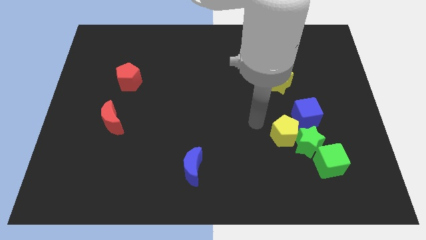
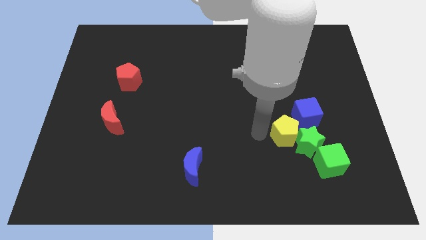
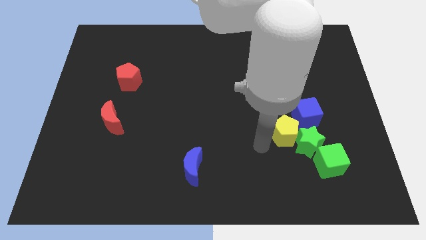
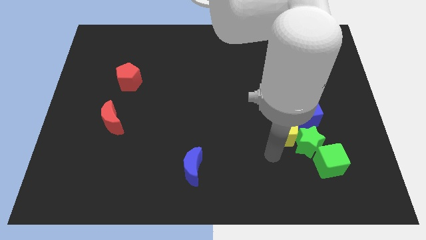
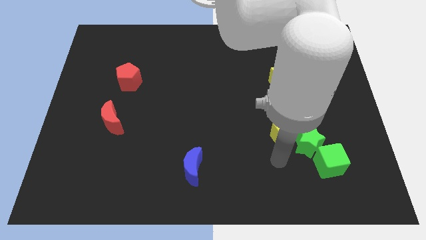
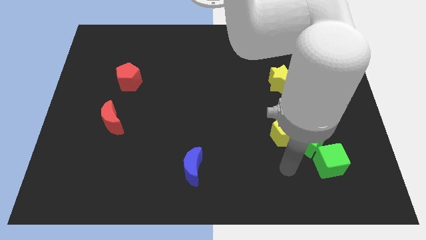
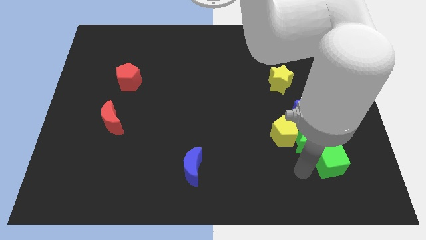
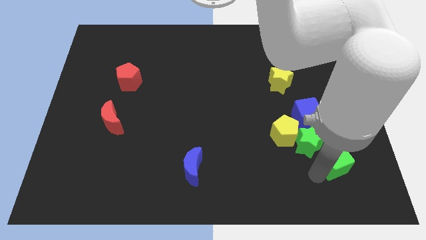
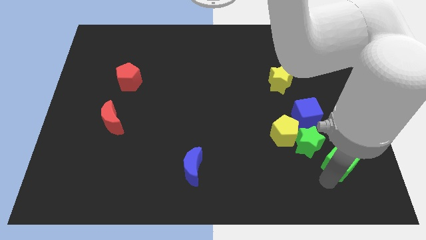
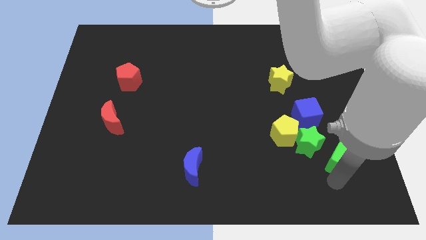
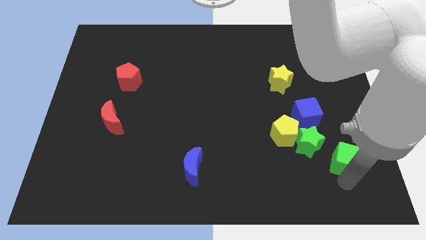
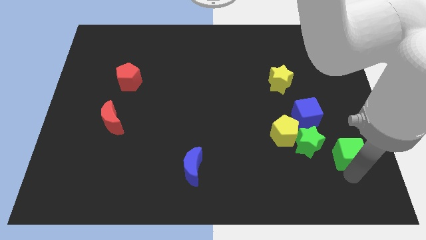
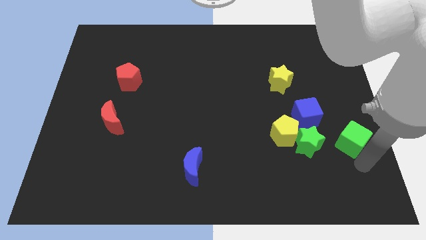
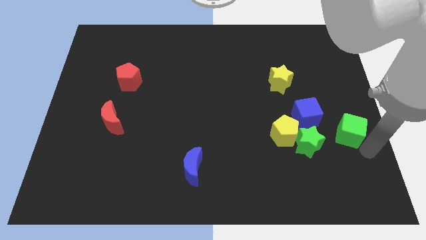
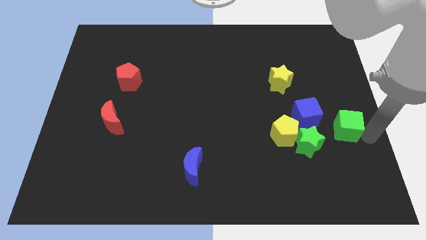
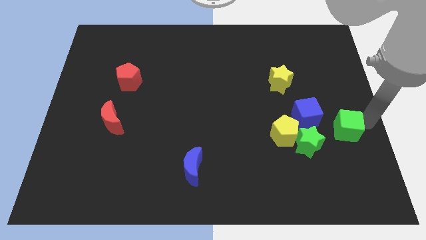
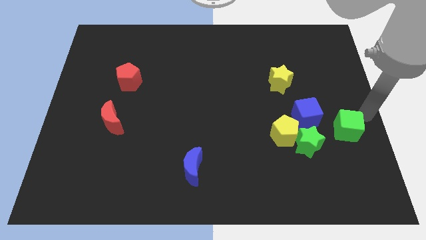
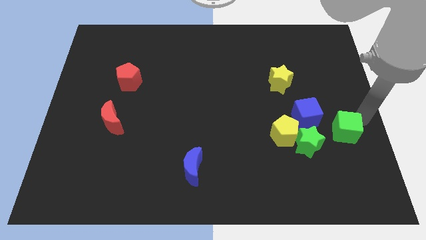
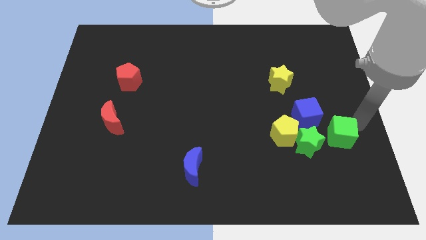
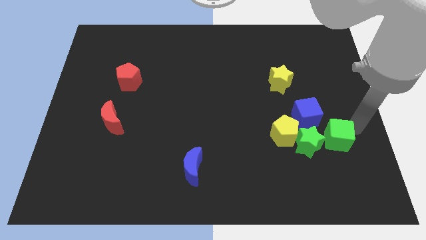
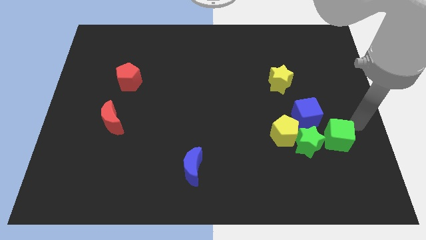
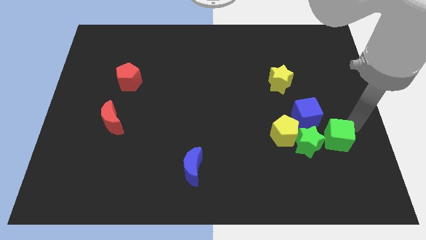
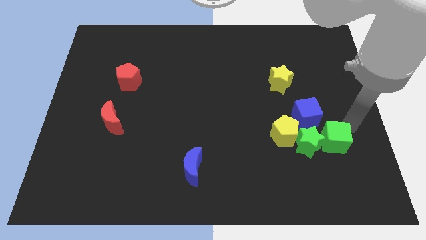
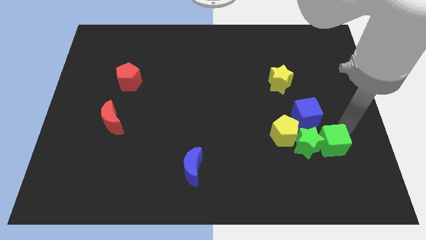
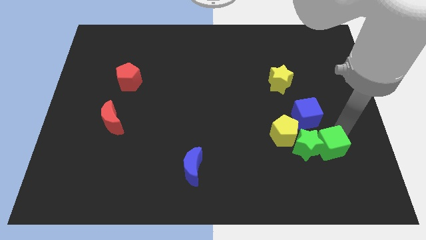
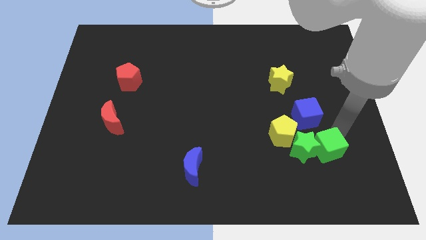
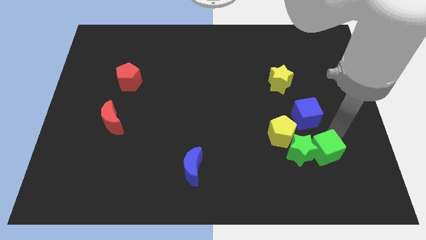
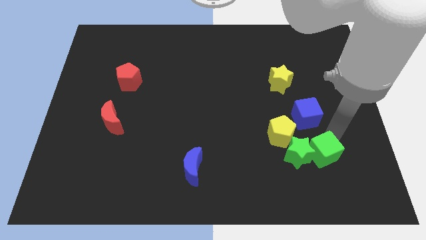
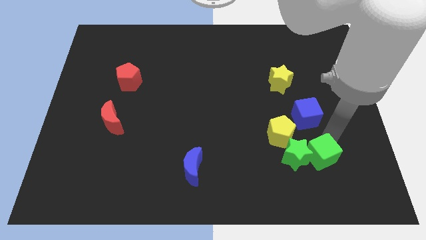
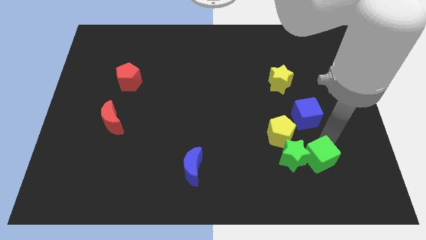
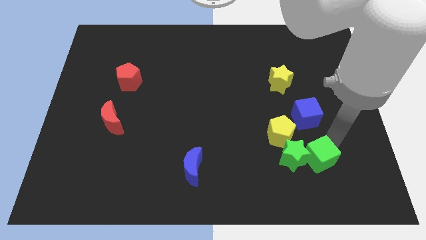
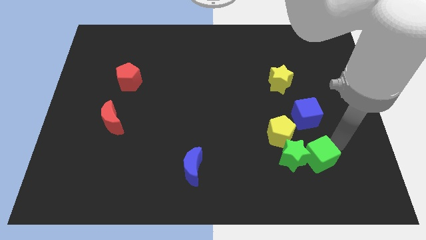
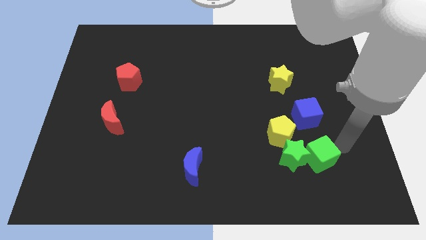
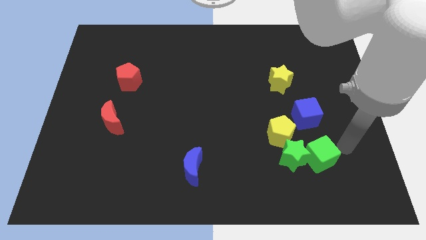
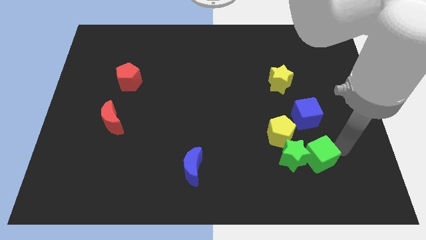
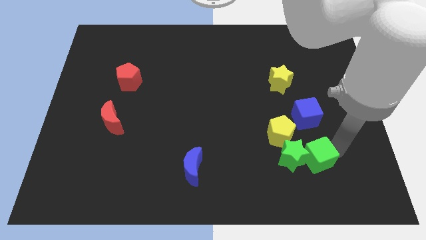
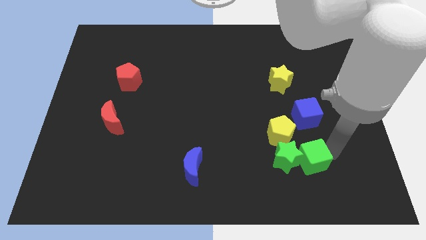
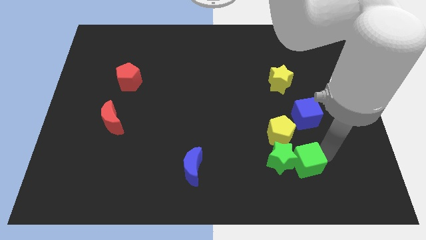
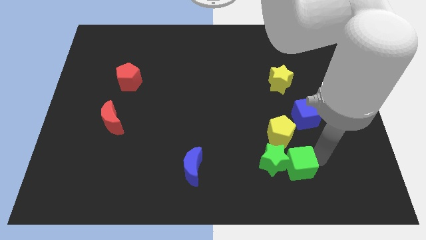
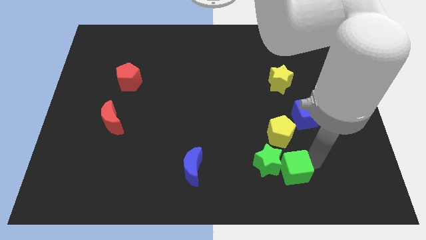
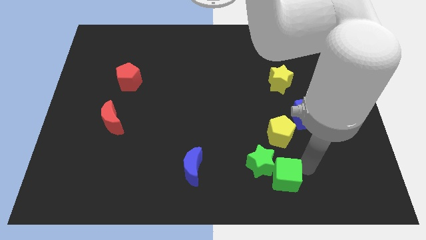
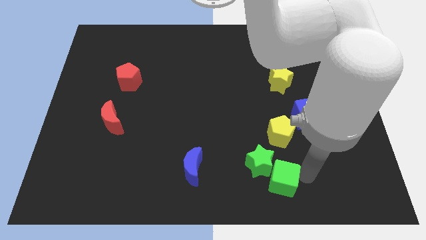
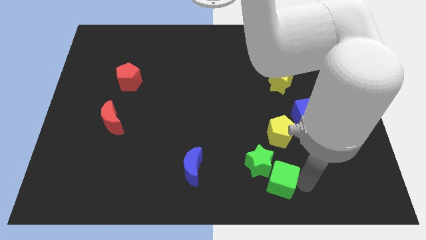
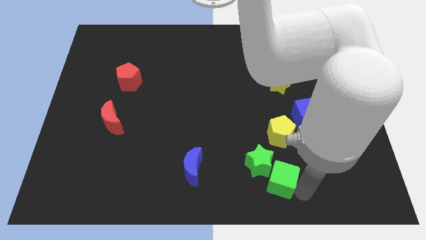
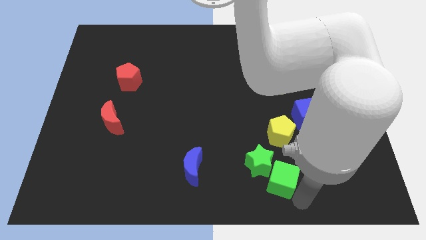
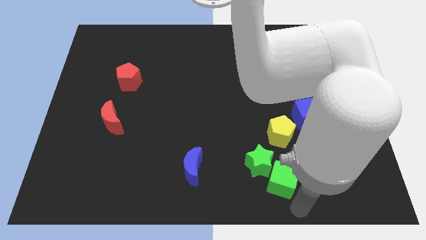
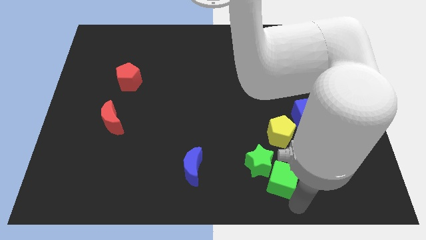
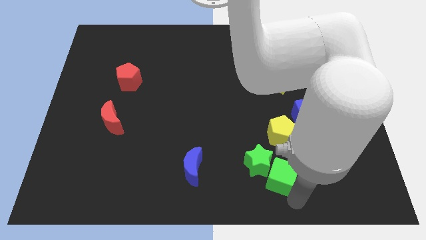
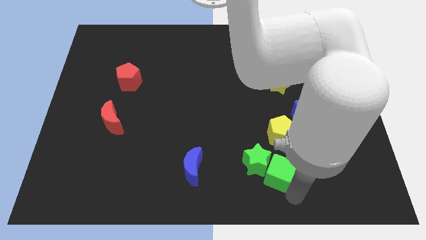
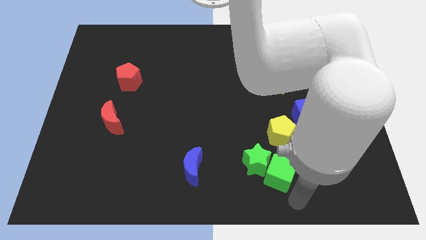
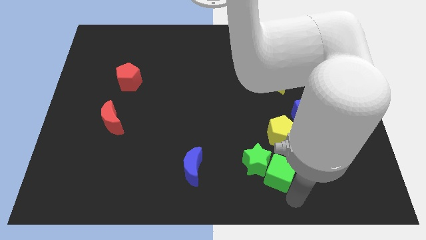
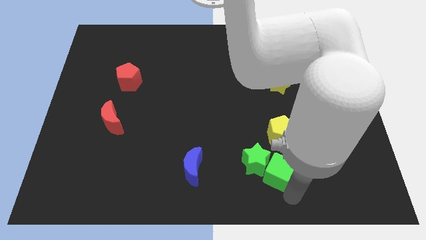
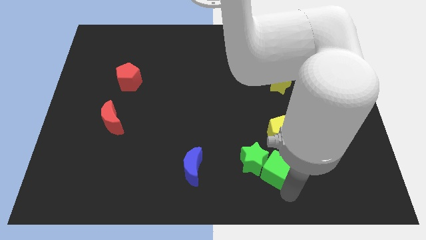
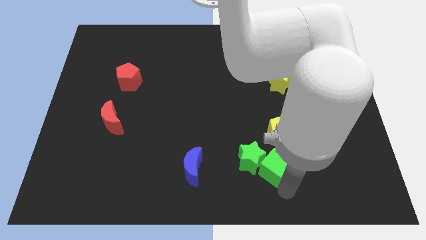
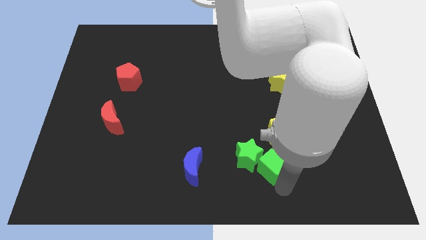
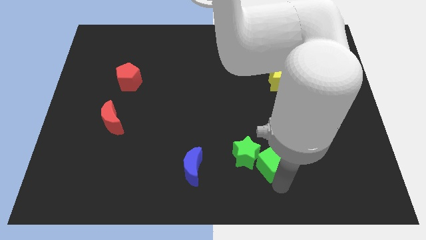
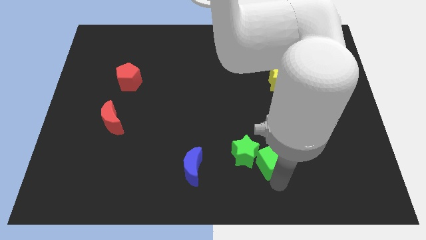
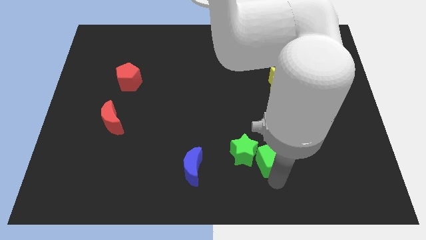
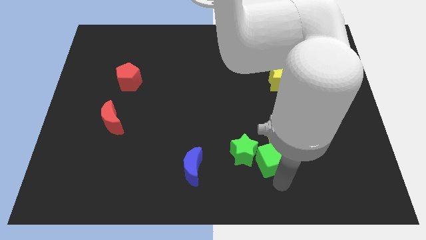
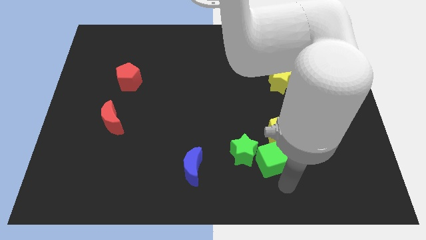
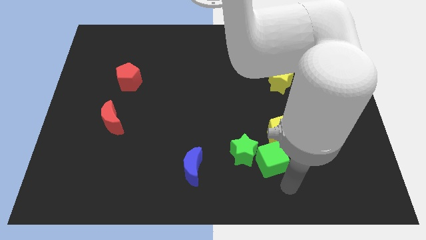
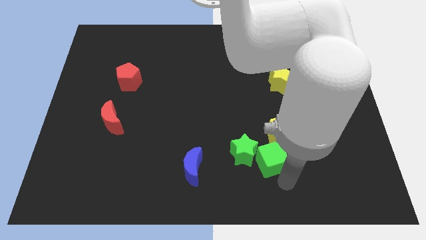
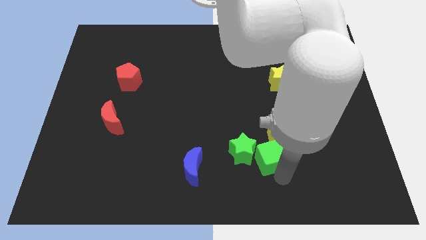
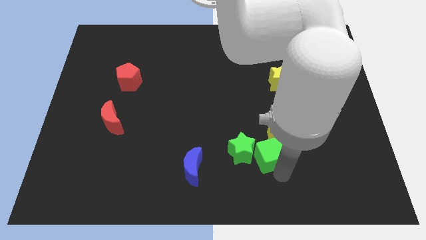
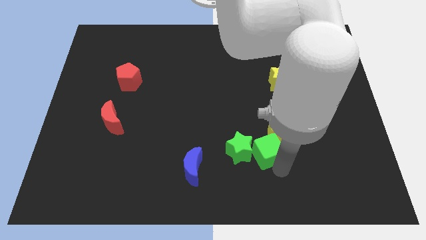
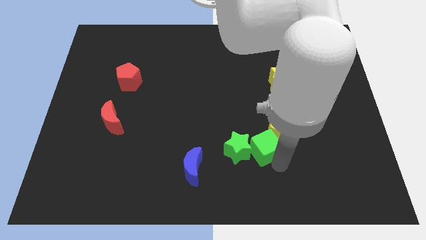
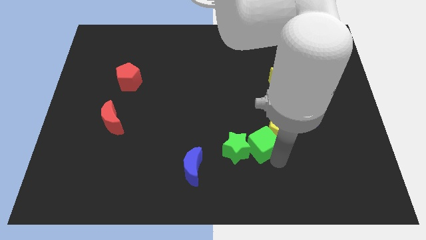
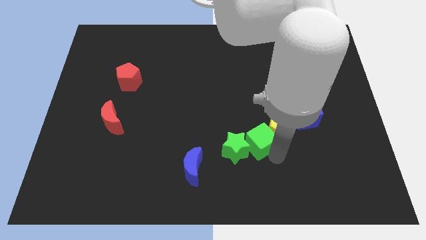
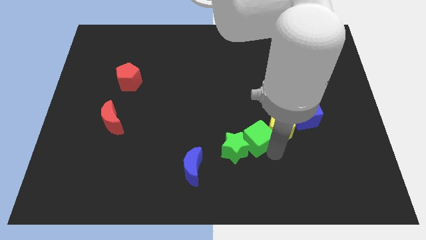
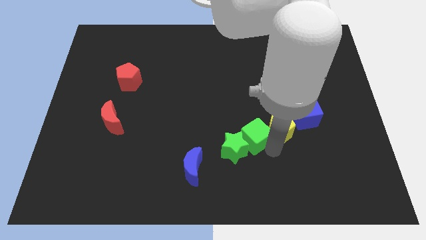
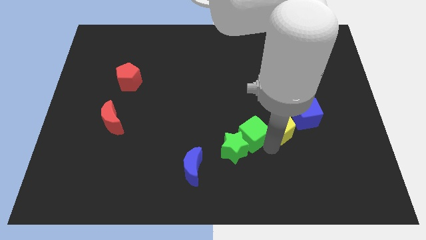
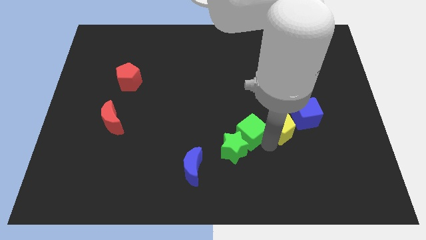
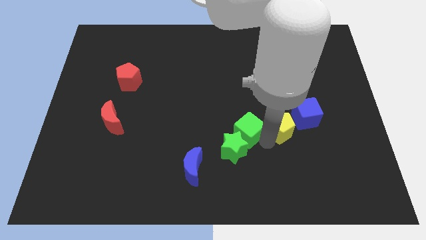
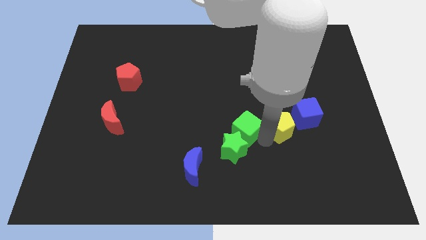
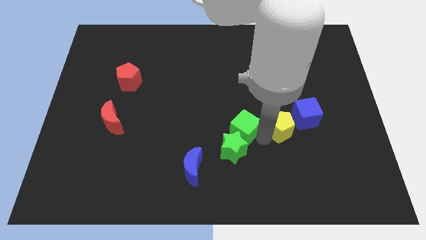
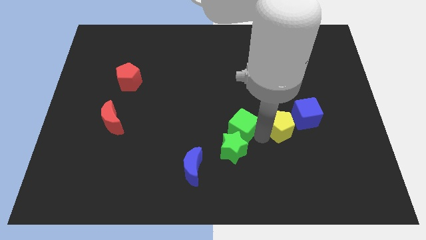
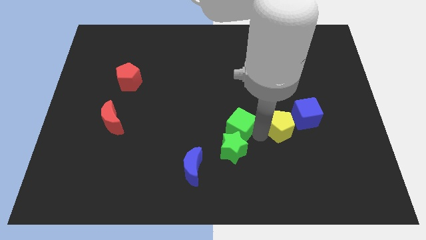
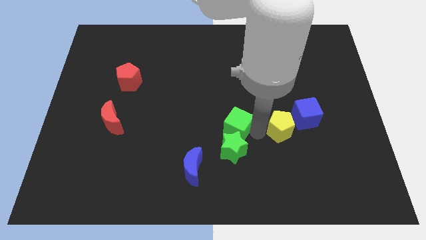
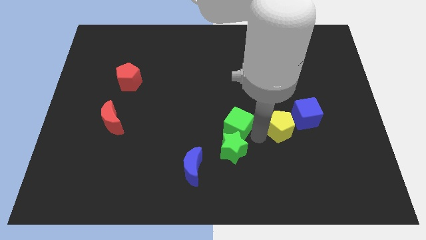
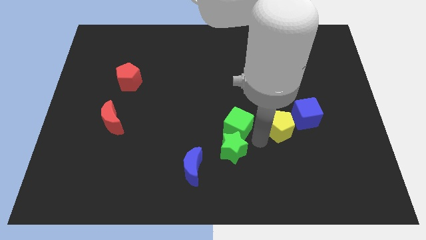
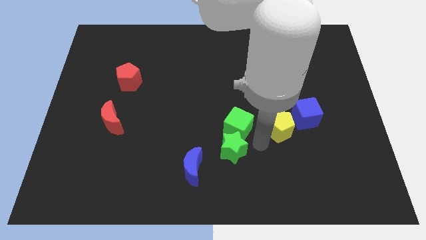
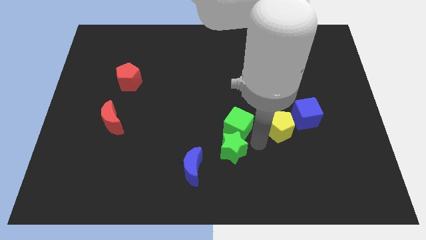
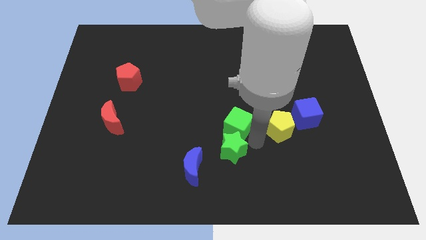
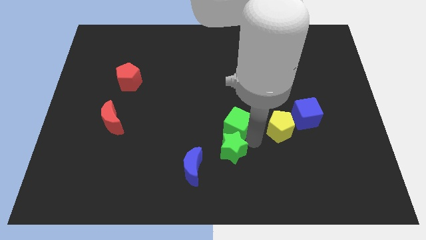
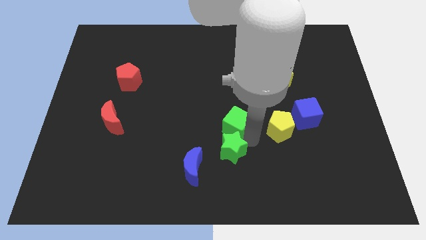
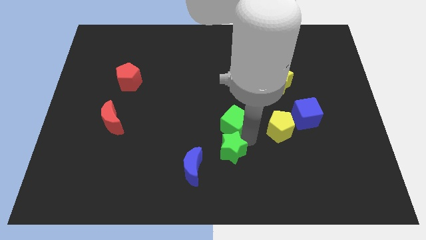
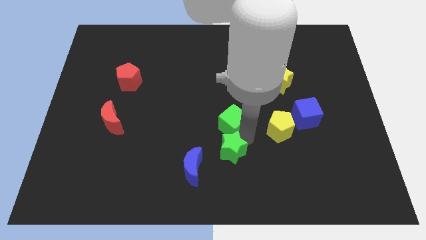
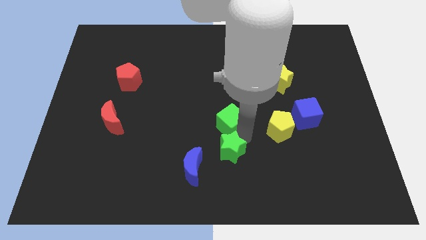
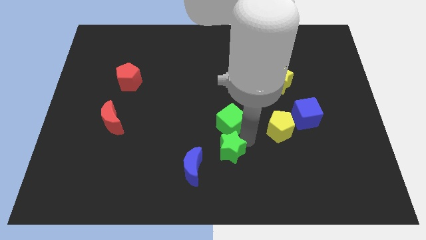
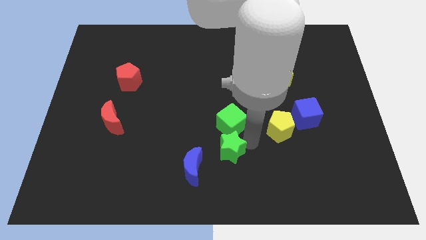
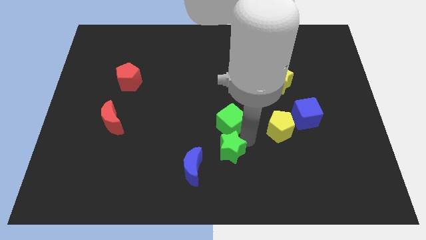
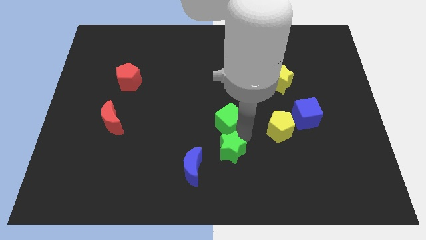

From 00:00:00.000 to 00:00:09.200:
push the green cube diagonally up and left
